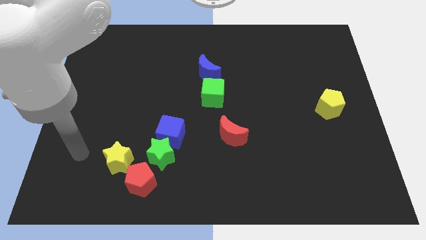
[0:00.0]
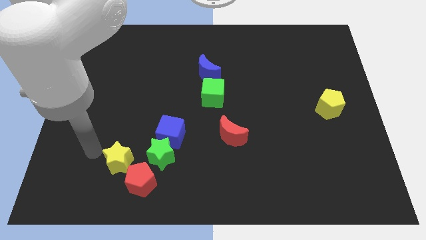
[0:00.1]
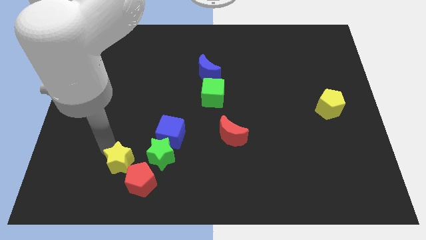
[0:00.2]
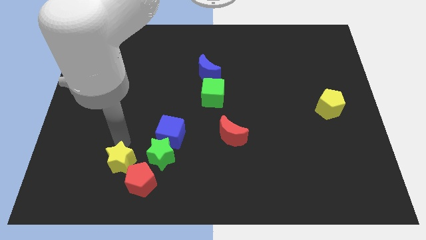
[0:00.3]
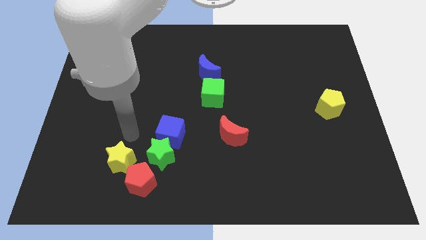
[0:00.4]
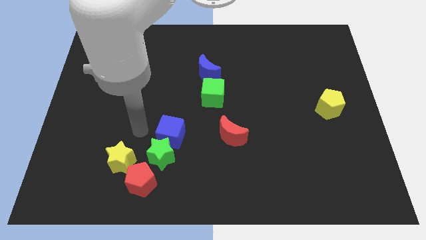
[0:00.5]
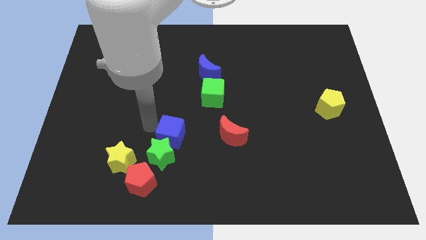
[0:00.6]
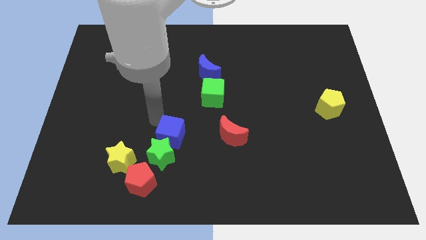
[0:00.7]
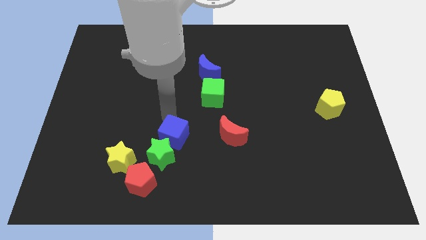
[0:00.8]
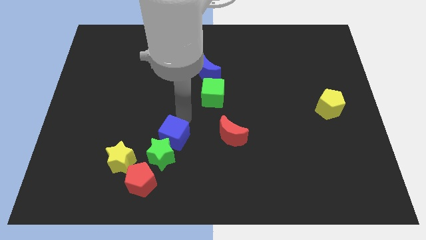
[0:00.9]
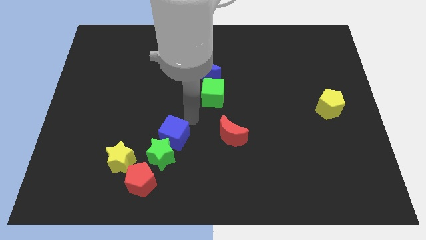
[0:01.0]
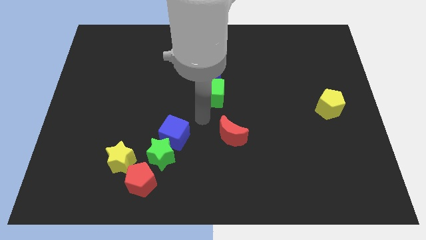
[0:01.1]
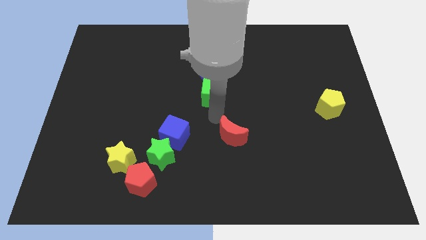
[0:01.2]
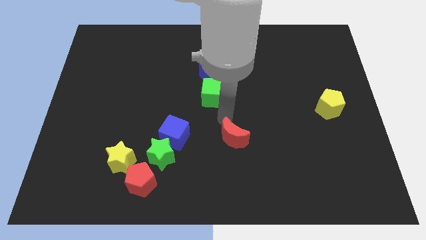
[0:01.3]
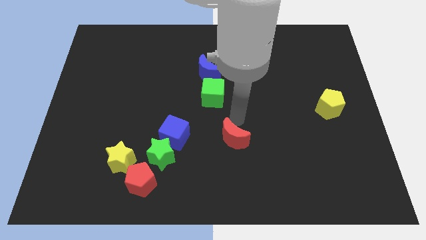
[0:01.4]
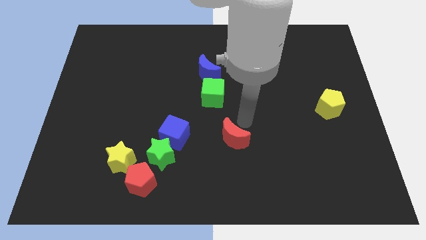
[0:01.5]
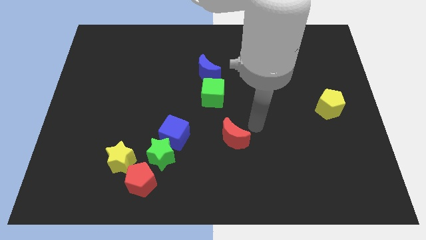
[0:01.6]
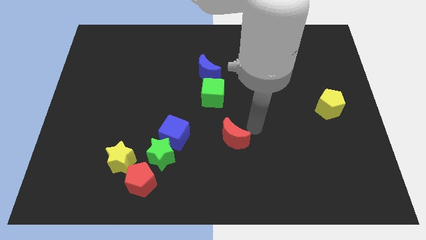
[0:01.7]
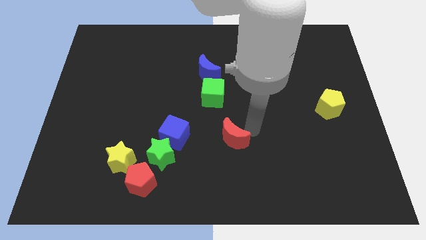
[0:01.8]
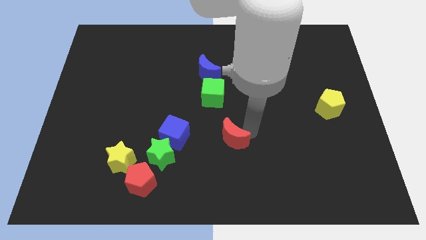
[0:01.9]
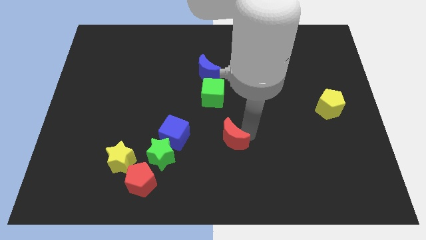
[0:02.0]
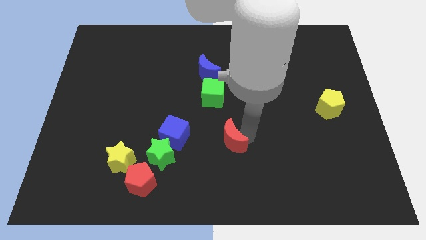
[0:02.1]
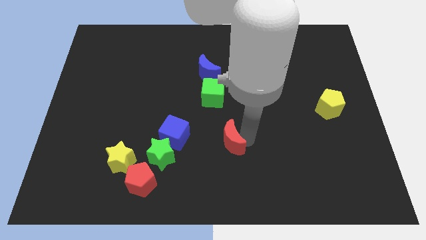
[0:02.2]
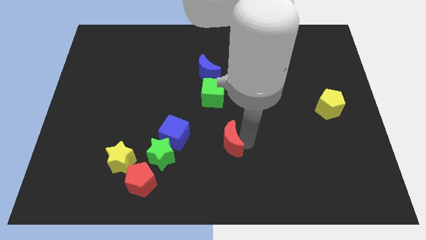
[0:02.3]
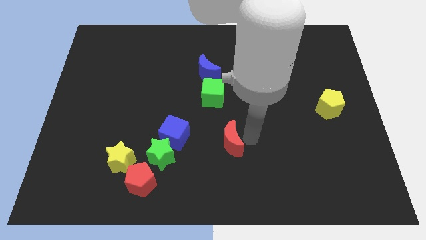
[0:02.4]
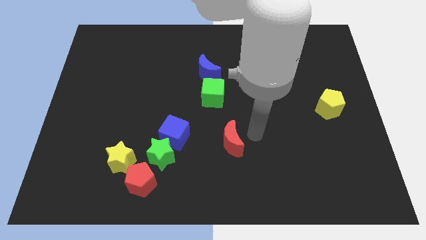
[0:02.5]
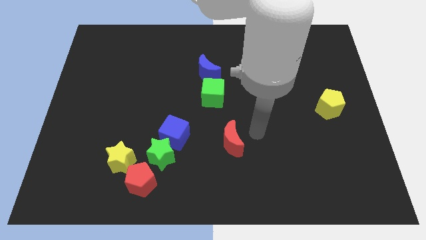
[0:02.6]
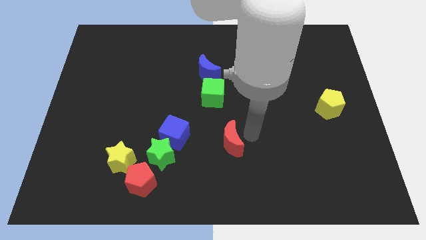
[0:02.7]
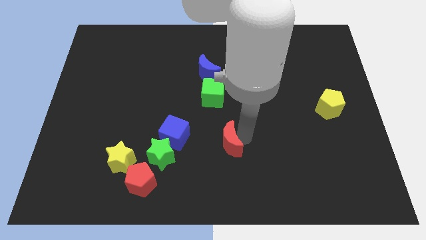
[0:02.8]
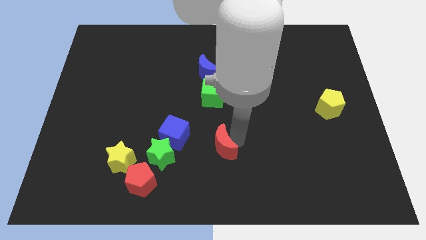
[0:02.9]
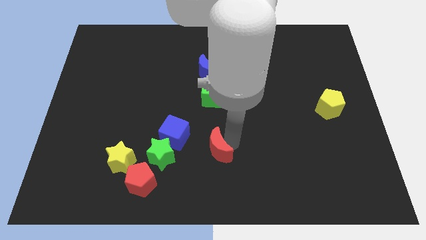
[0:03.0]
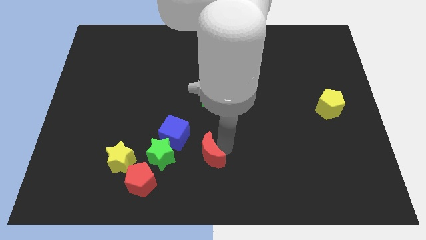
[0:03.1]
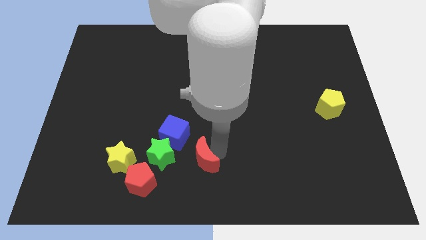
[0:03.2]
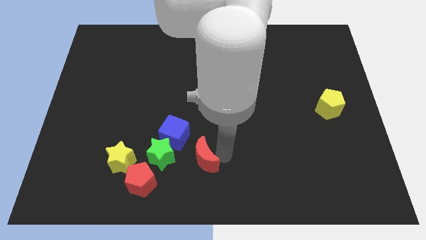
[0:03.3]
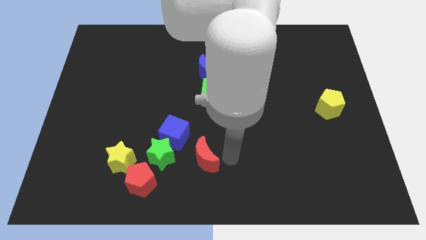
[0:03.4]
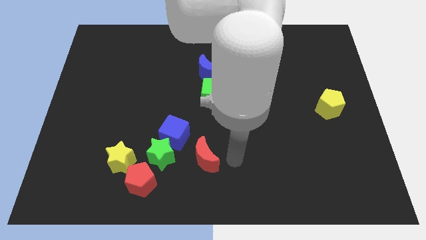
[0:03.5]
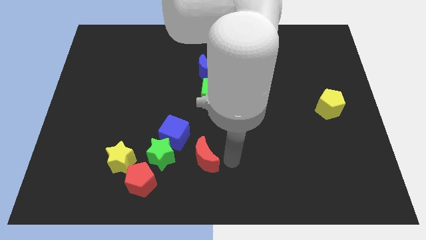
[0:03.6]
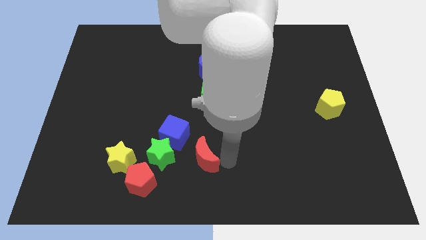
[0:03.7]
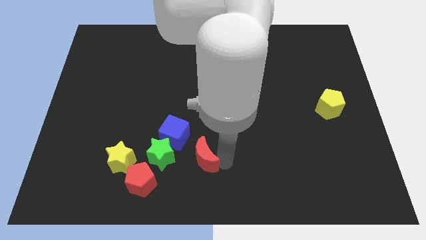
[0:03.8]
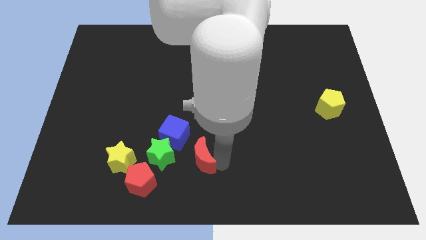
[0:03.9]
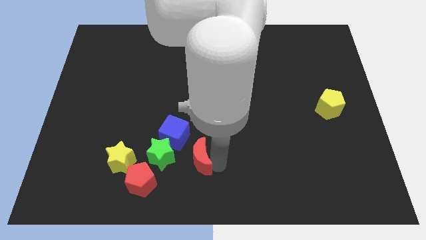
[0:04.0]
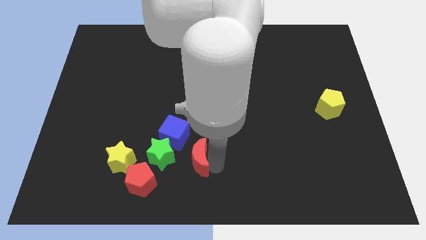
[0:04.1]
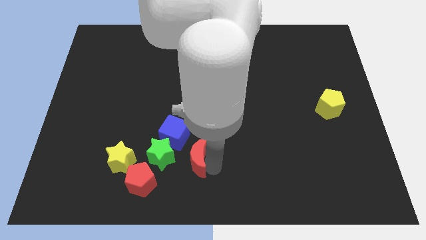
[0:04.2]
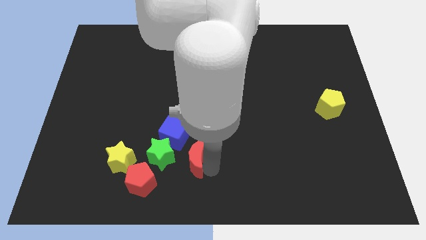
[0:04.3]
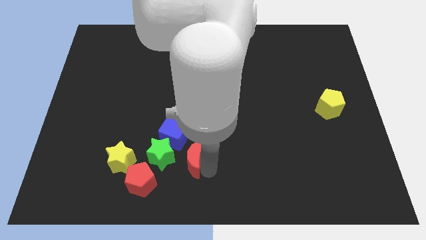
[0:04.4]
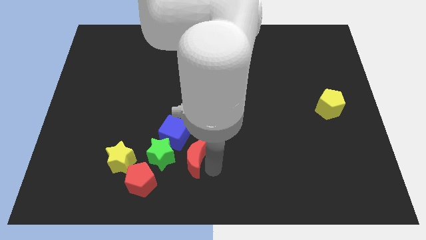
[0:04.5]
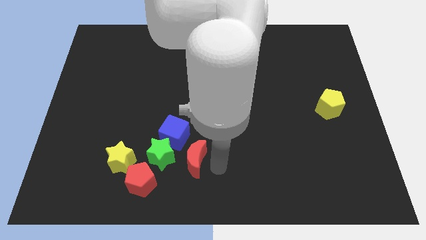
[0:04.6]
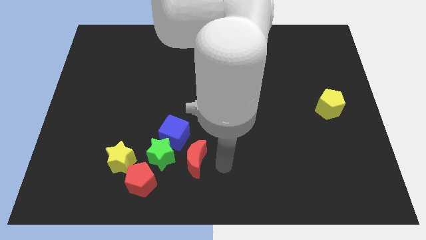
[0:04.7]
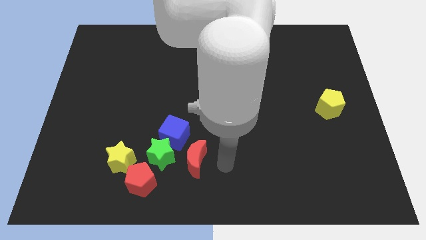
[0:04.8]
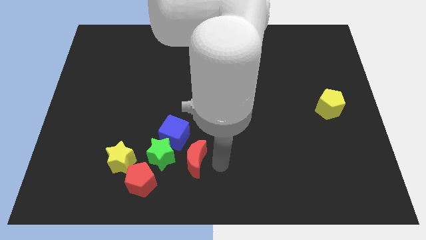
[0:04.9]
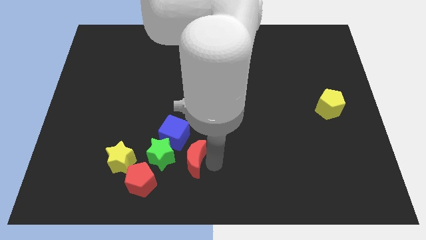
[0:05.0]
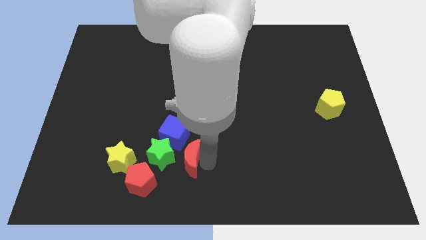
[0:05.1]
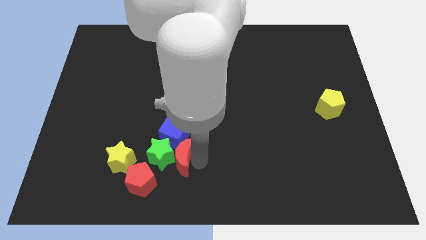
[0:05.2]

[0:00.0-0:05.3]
push the red moon towards the green star

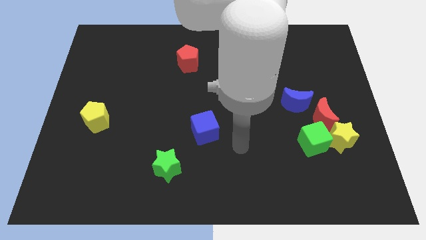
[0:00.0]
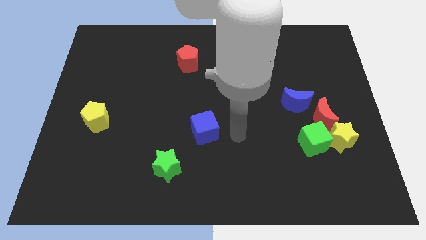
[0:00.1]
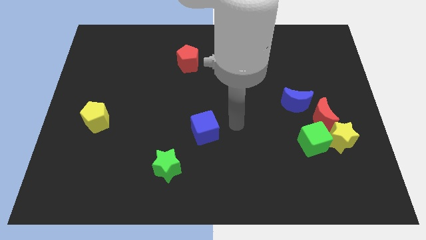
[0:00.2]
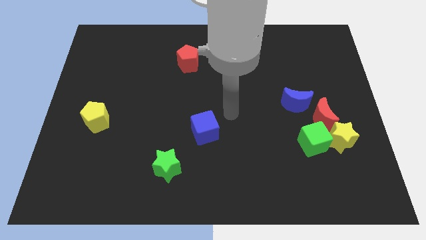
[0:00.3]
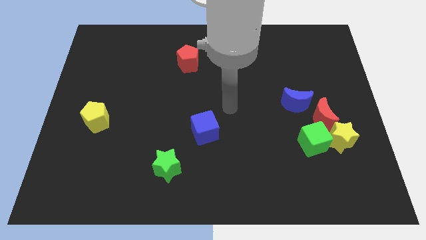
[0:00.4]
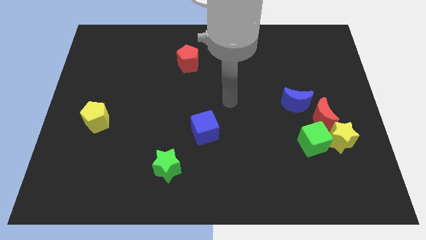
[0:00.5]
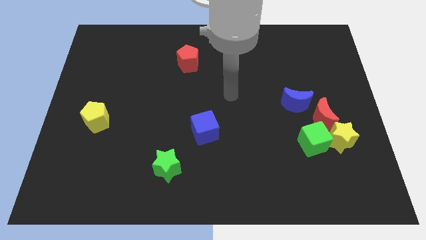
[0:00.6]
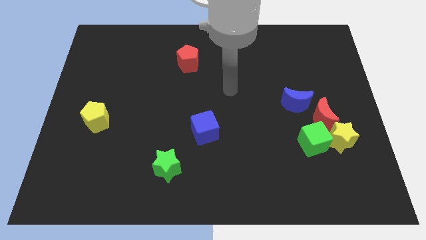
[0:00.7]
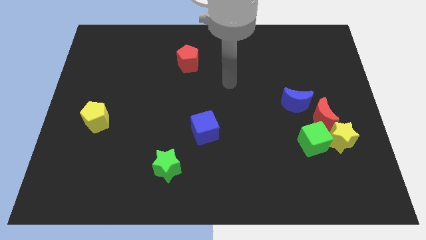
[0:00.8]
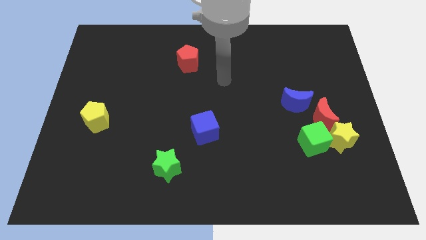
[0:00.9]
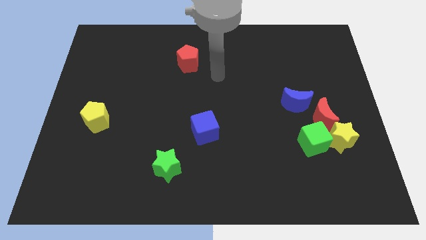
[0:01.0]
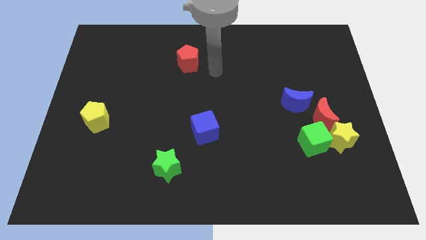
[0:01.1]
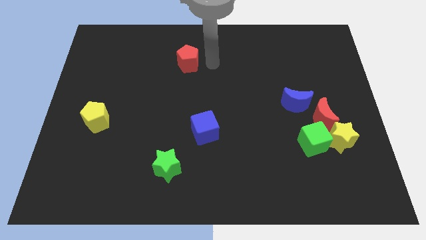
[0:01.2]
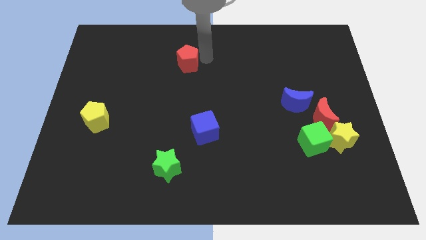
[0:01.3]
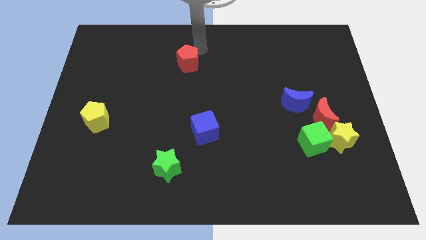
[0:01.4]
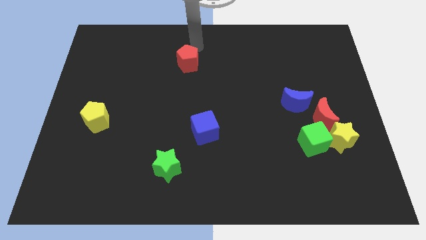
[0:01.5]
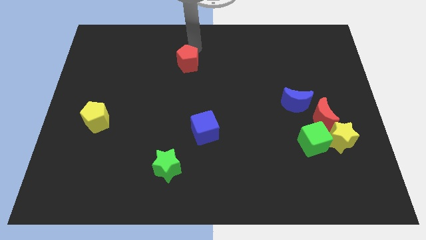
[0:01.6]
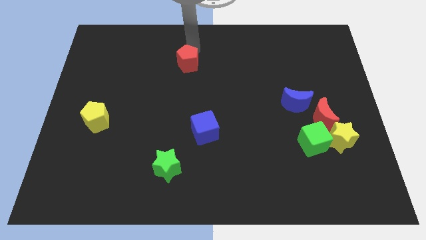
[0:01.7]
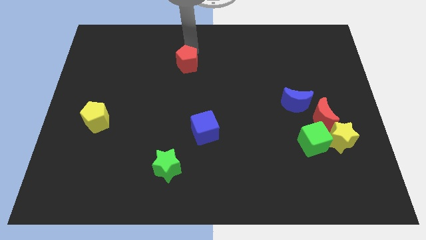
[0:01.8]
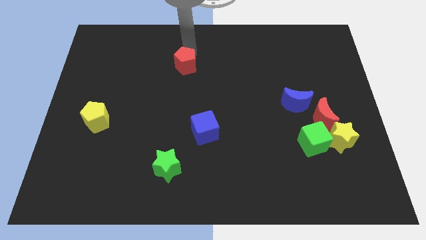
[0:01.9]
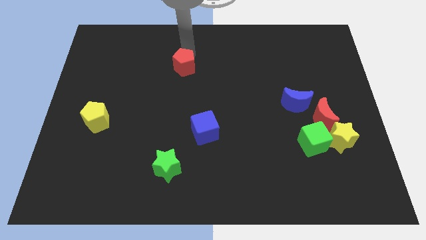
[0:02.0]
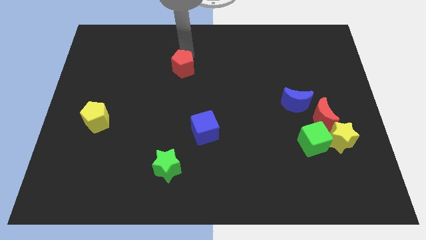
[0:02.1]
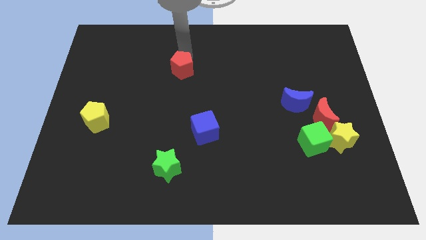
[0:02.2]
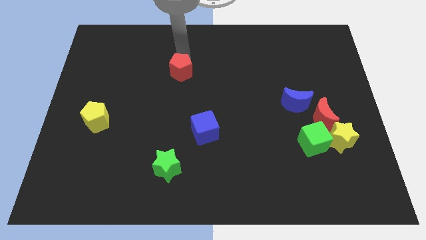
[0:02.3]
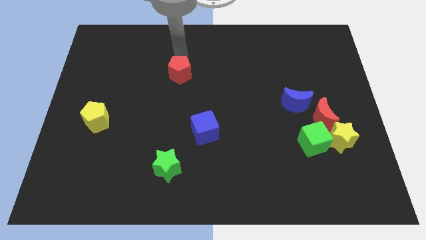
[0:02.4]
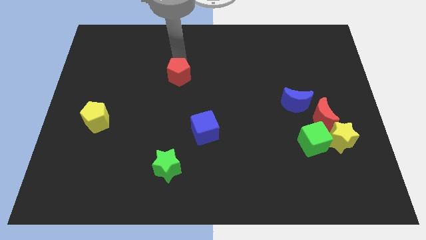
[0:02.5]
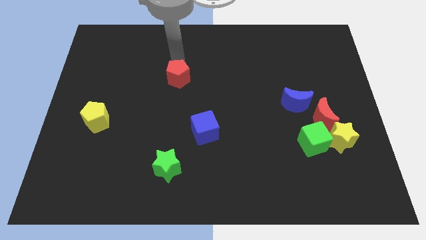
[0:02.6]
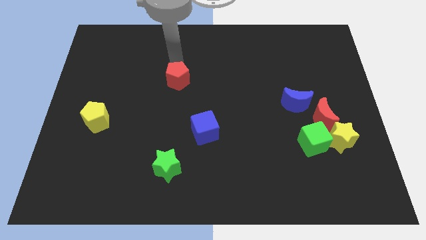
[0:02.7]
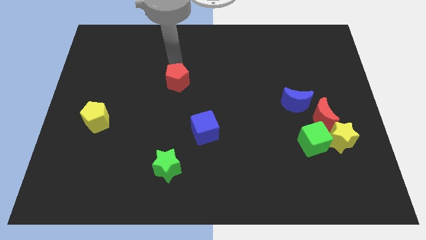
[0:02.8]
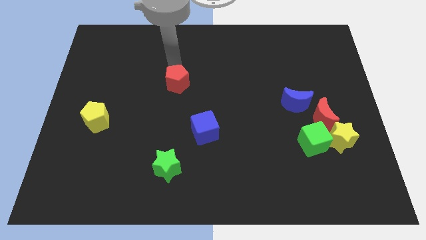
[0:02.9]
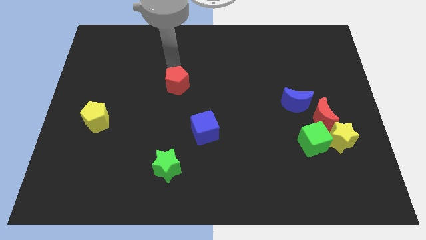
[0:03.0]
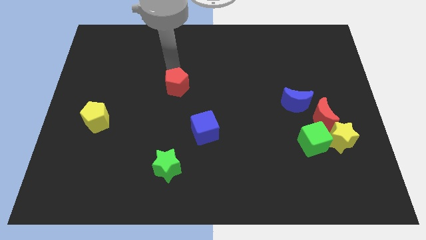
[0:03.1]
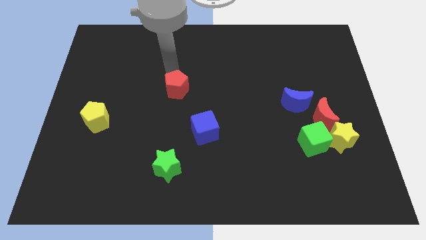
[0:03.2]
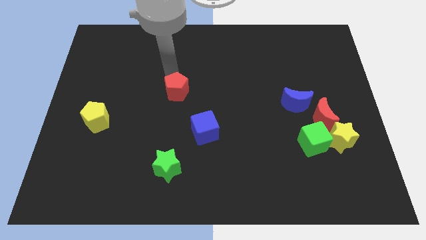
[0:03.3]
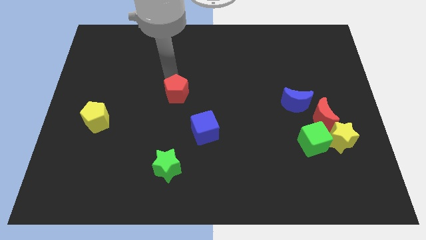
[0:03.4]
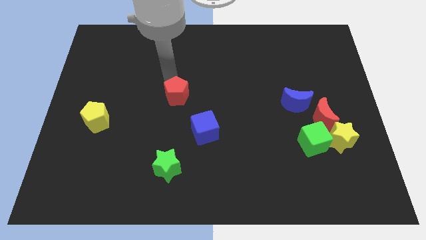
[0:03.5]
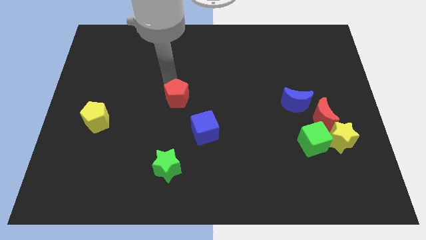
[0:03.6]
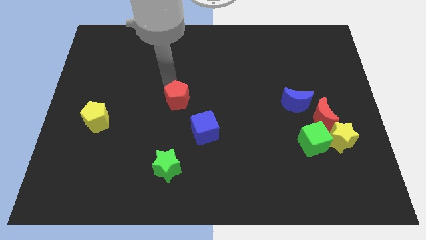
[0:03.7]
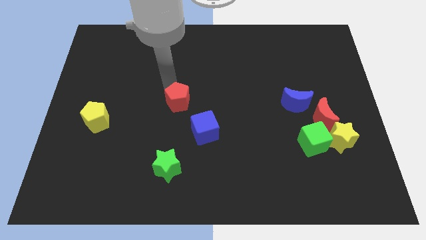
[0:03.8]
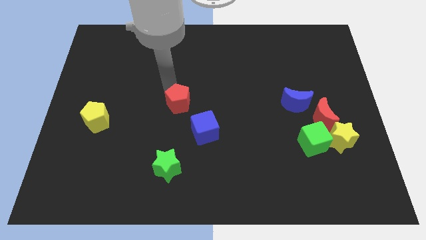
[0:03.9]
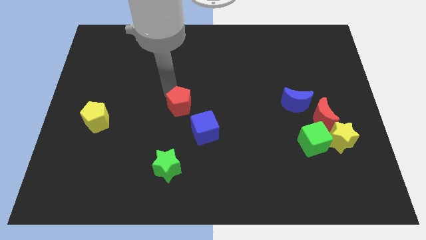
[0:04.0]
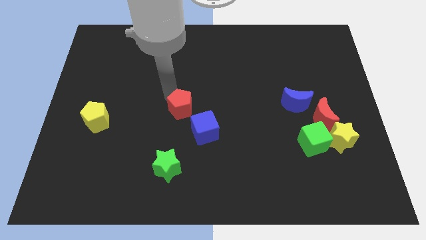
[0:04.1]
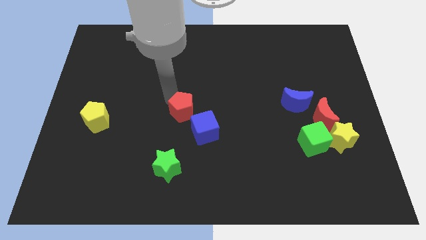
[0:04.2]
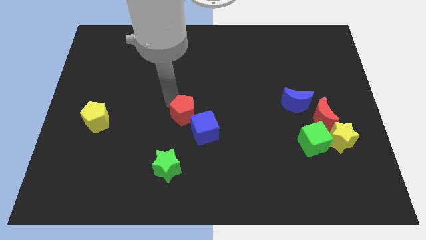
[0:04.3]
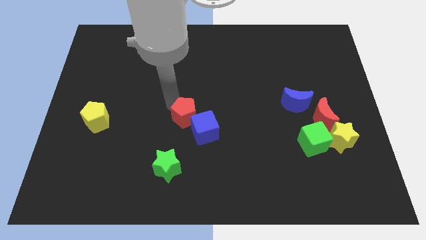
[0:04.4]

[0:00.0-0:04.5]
slide the red pentagon close to the blue cube
